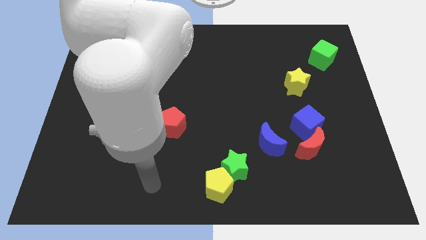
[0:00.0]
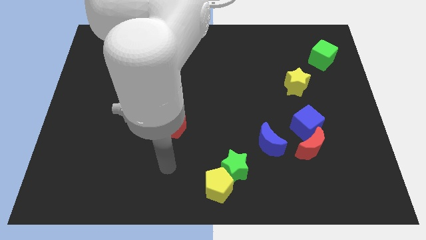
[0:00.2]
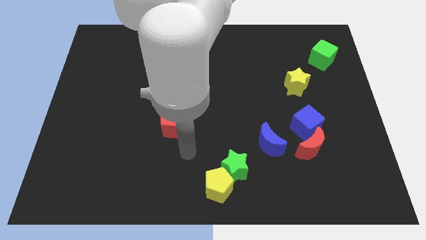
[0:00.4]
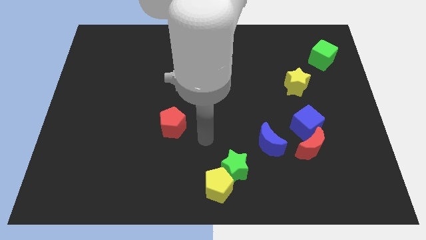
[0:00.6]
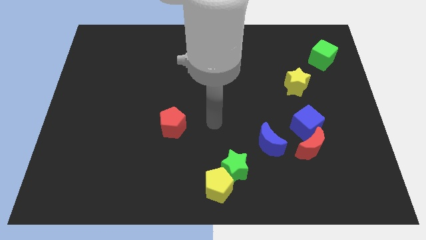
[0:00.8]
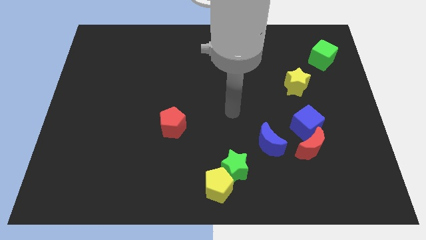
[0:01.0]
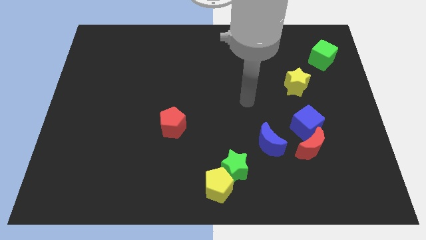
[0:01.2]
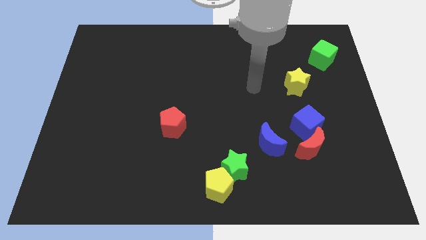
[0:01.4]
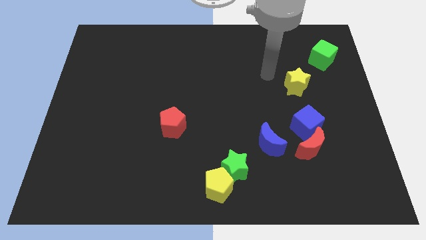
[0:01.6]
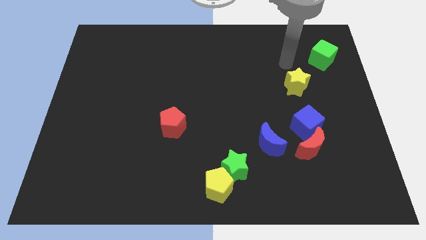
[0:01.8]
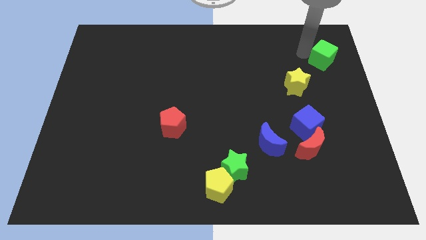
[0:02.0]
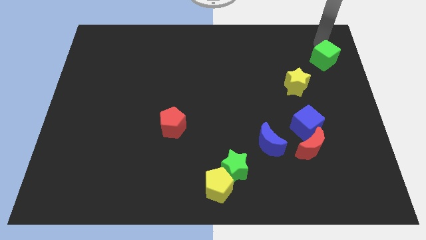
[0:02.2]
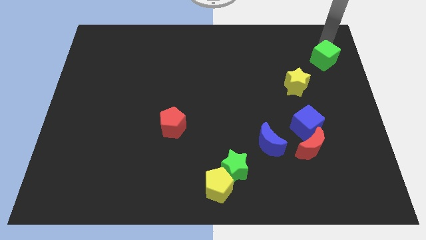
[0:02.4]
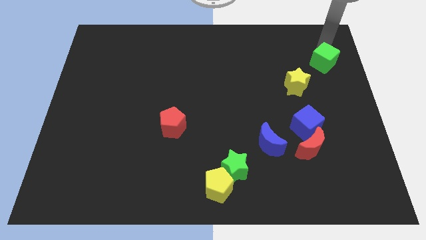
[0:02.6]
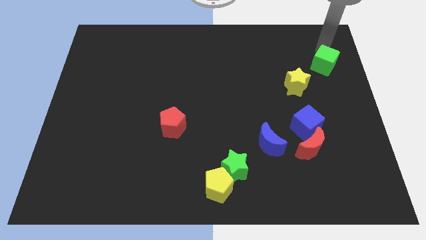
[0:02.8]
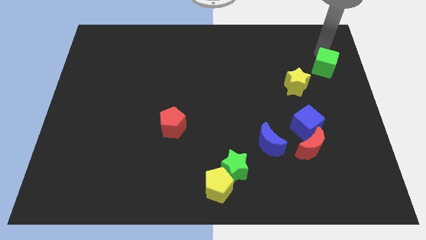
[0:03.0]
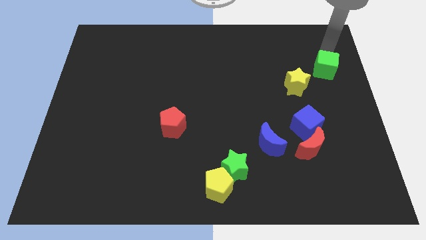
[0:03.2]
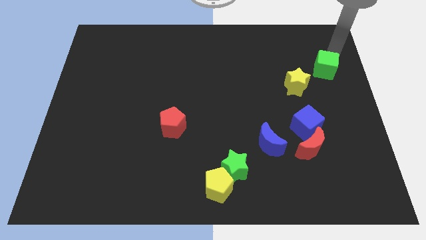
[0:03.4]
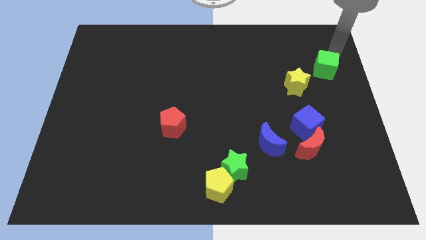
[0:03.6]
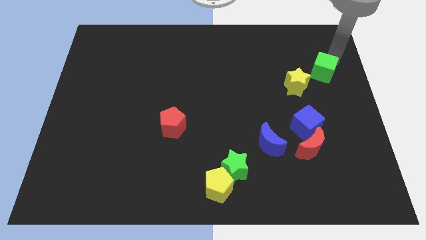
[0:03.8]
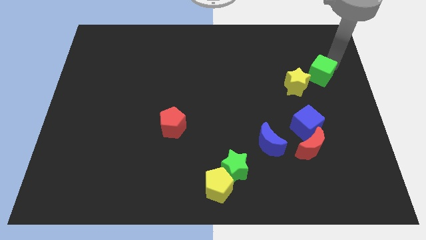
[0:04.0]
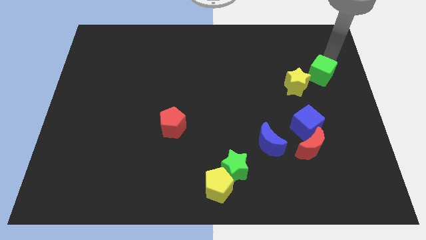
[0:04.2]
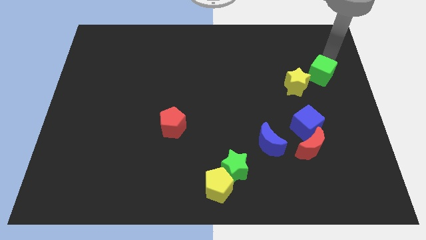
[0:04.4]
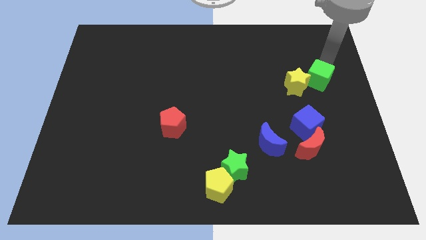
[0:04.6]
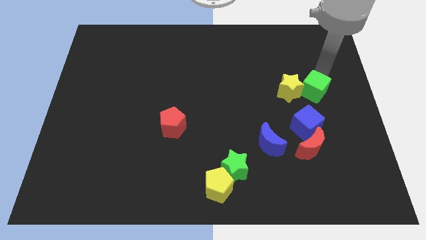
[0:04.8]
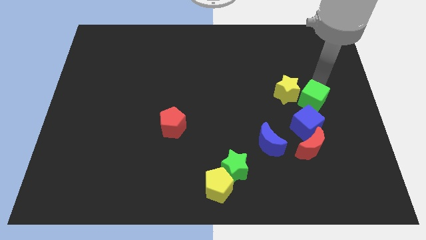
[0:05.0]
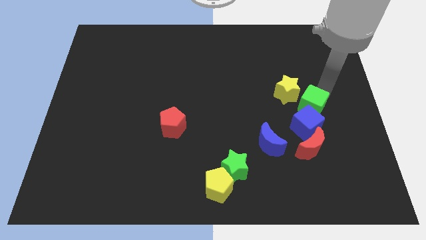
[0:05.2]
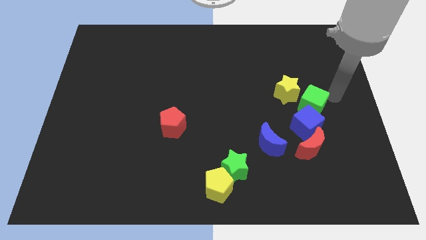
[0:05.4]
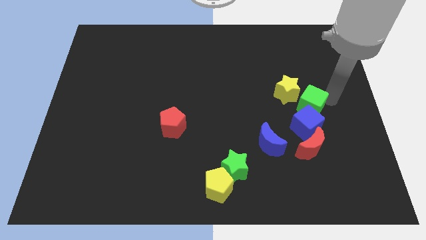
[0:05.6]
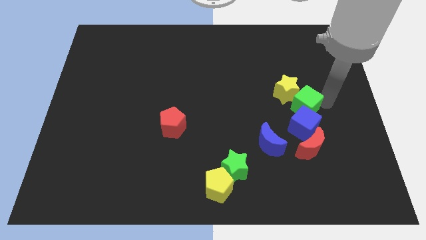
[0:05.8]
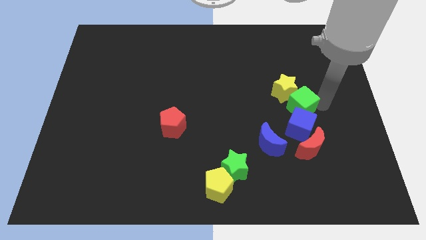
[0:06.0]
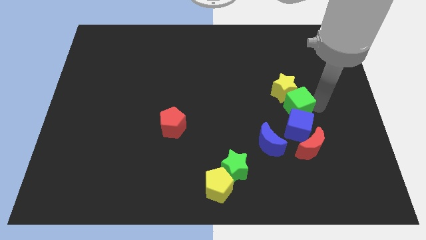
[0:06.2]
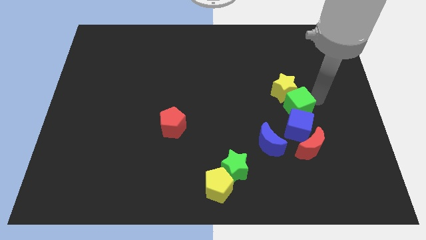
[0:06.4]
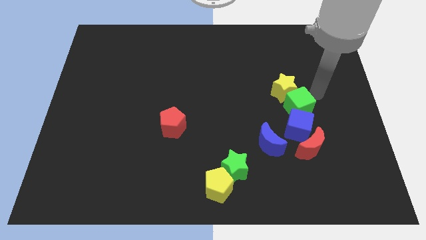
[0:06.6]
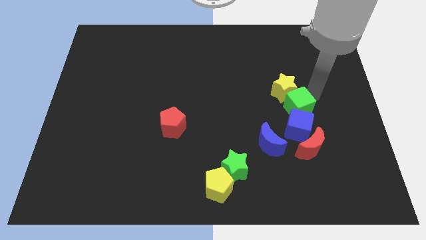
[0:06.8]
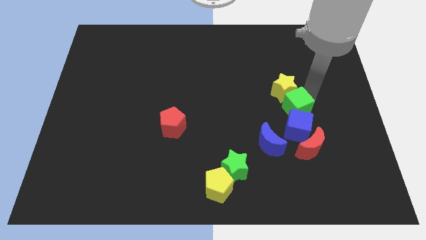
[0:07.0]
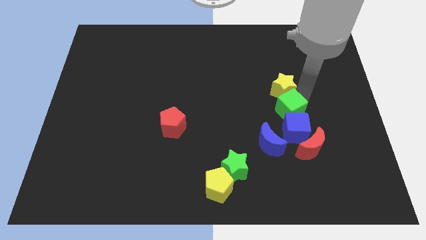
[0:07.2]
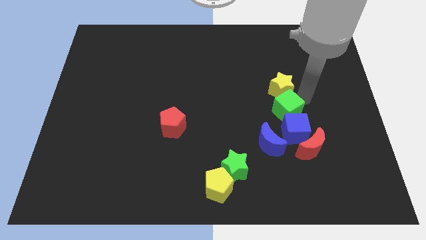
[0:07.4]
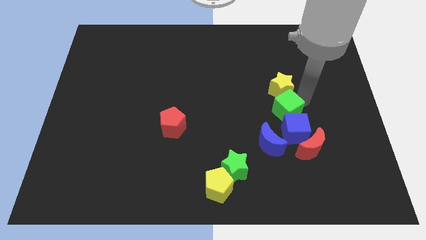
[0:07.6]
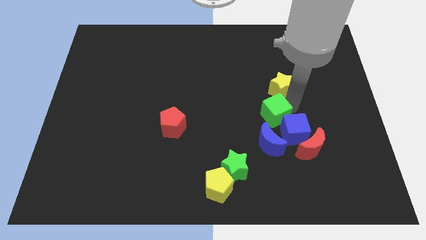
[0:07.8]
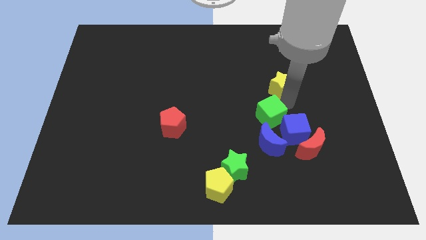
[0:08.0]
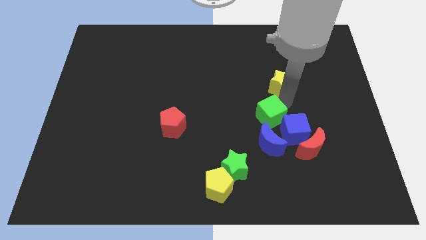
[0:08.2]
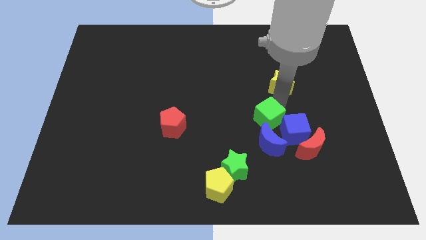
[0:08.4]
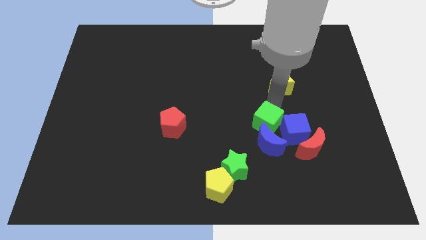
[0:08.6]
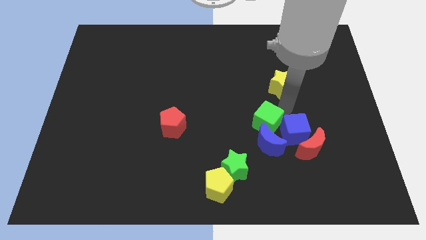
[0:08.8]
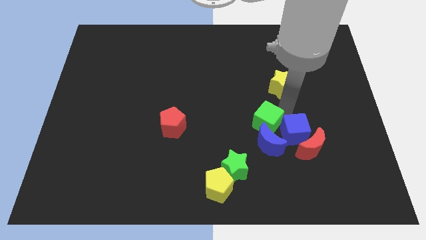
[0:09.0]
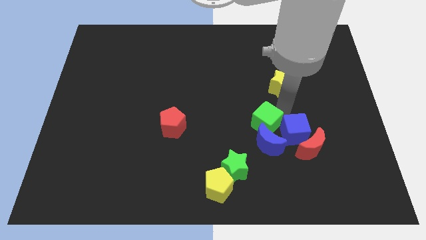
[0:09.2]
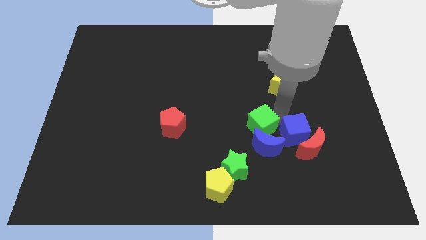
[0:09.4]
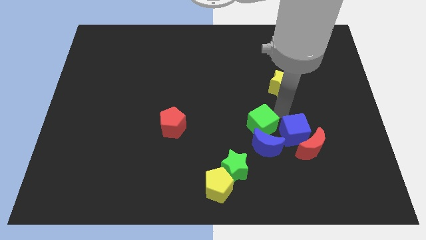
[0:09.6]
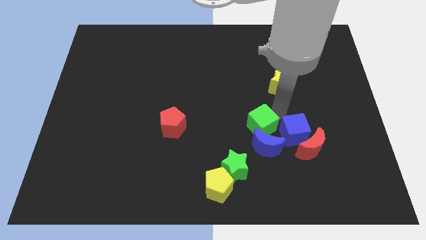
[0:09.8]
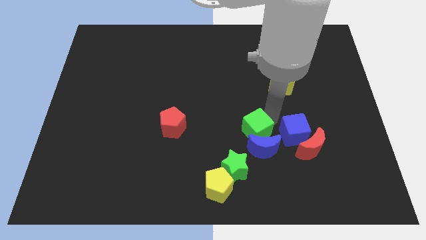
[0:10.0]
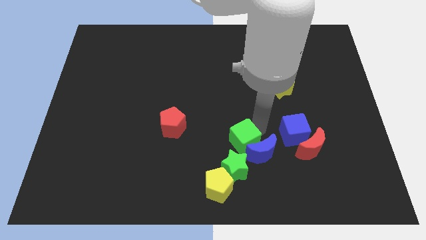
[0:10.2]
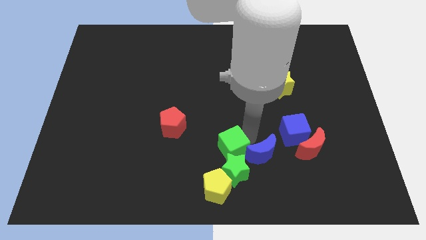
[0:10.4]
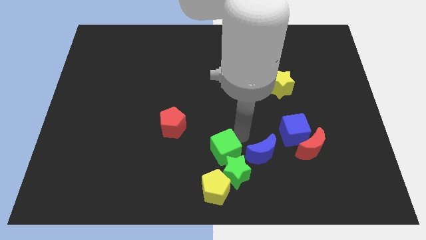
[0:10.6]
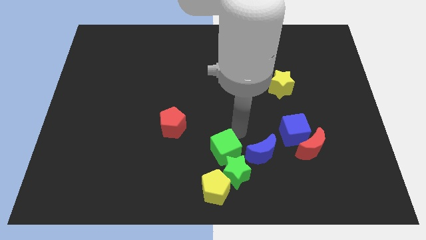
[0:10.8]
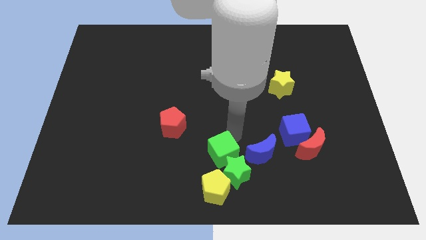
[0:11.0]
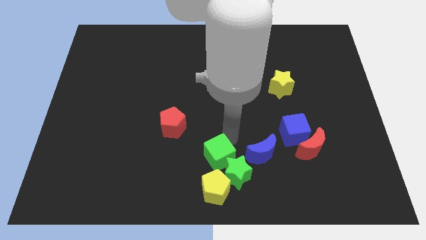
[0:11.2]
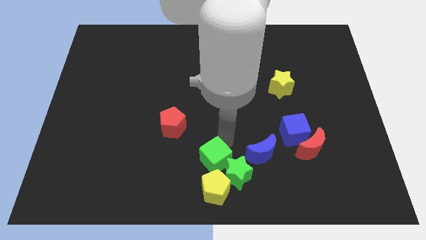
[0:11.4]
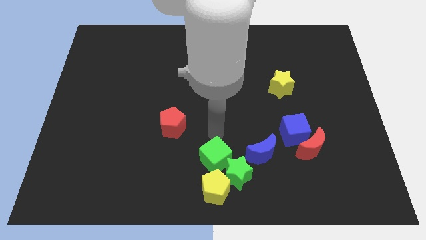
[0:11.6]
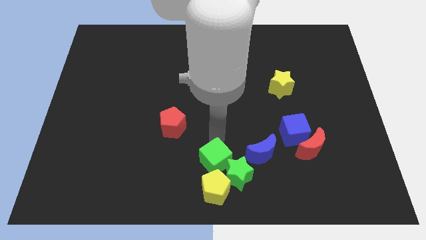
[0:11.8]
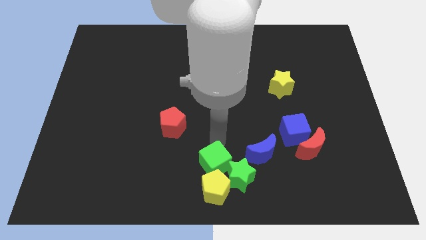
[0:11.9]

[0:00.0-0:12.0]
push the green cube next to the yellow pentagon
